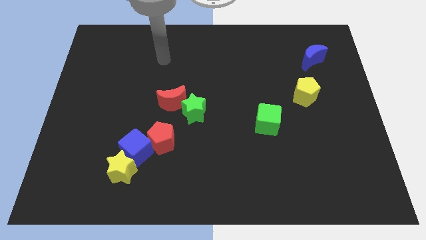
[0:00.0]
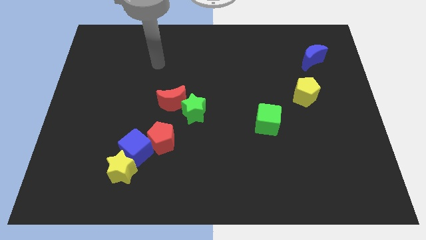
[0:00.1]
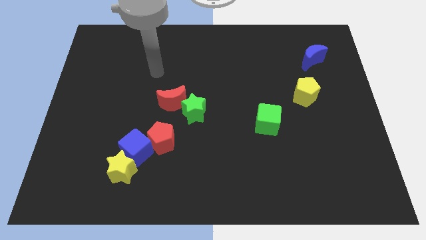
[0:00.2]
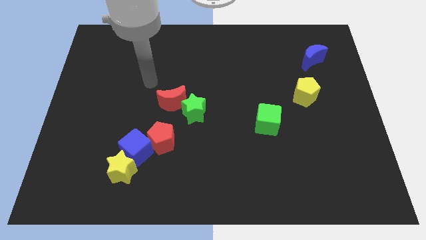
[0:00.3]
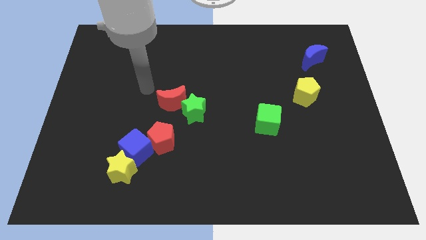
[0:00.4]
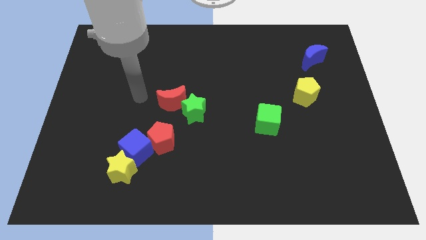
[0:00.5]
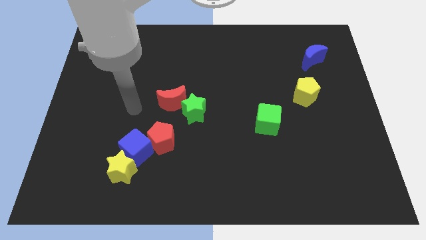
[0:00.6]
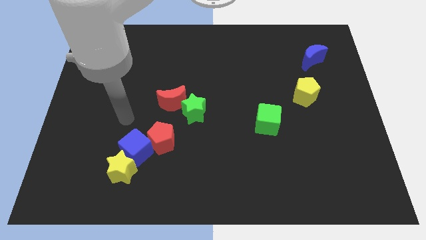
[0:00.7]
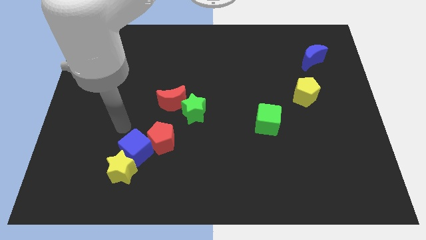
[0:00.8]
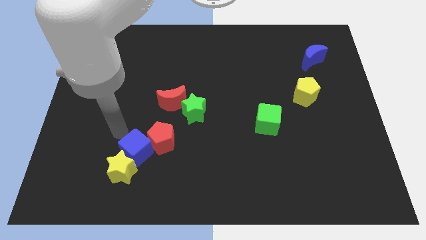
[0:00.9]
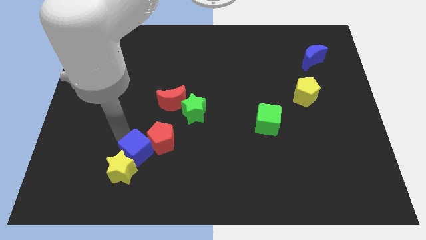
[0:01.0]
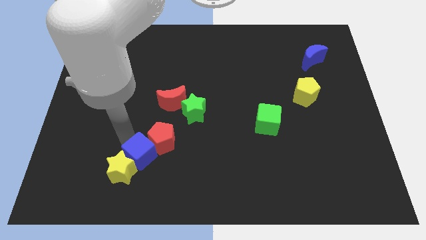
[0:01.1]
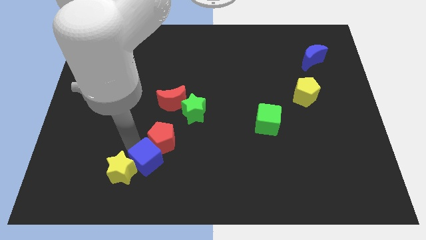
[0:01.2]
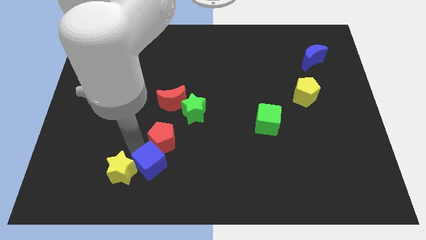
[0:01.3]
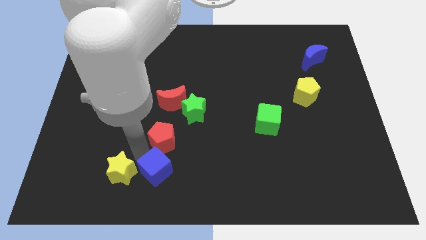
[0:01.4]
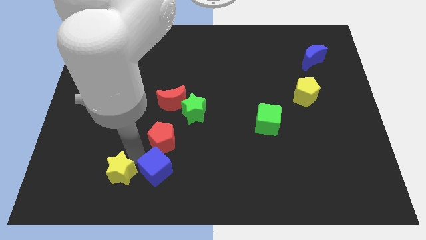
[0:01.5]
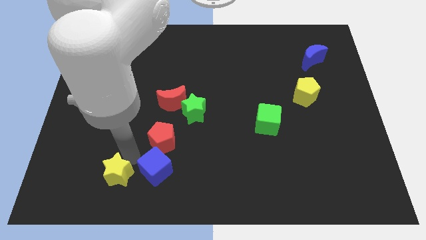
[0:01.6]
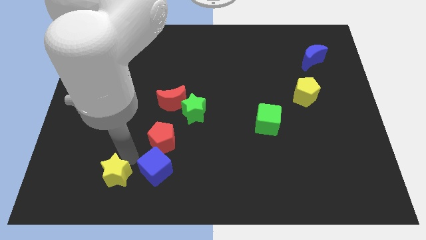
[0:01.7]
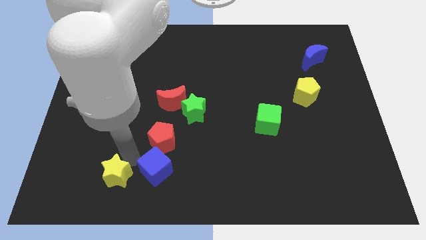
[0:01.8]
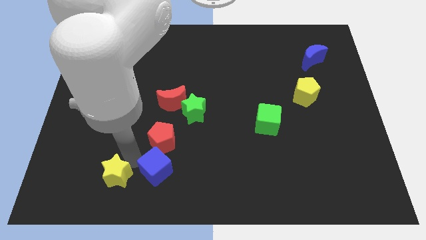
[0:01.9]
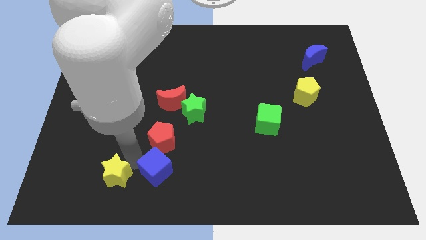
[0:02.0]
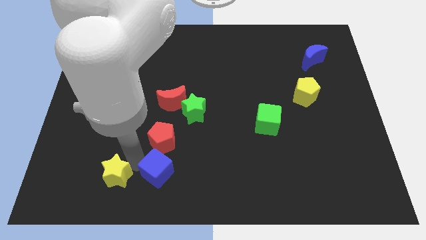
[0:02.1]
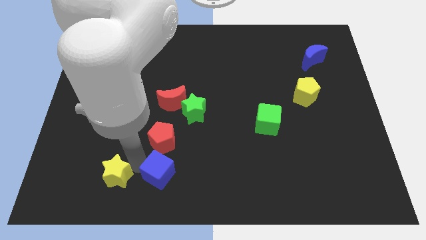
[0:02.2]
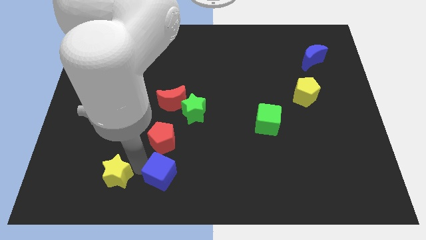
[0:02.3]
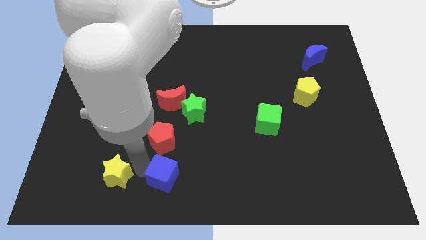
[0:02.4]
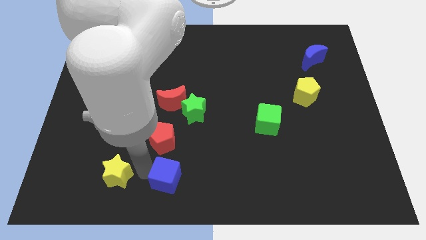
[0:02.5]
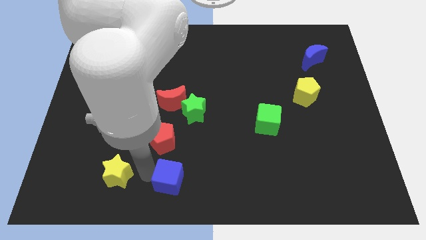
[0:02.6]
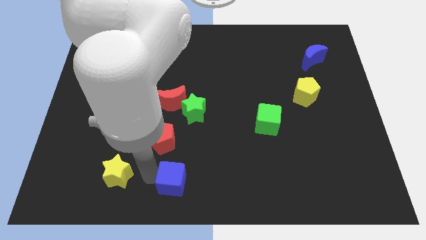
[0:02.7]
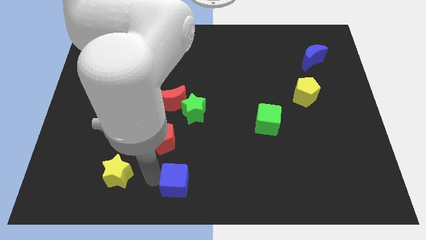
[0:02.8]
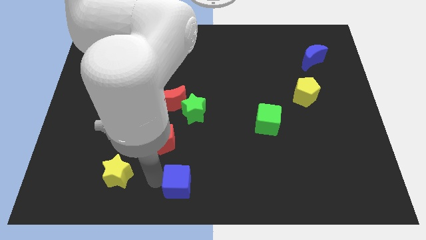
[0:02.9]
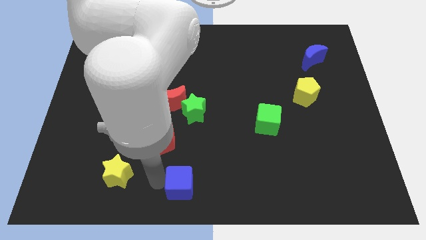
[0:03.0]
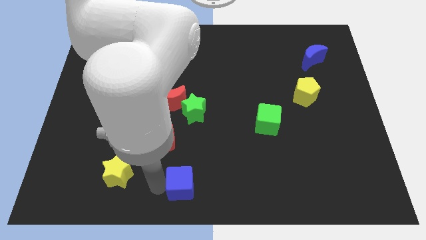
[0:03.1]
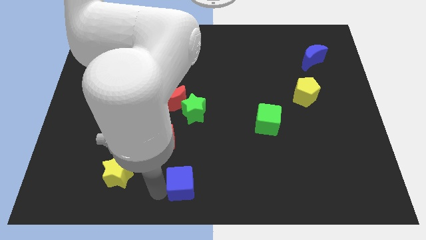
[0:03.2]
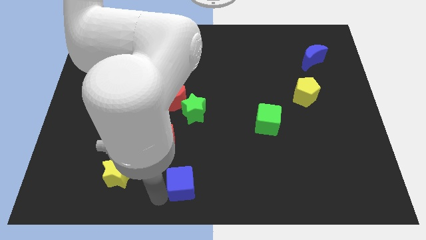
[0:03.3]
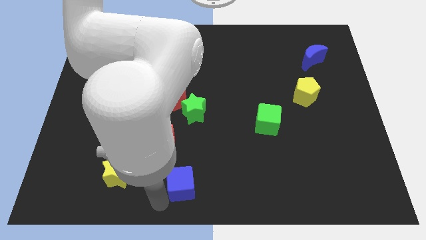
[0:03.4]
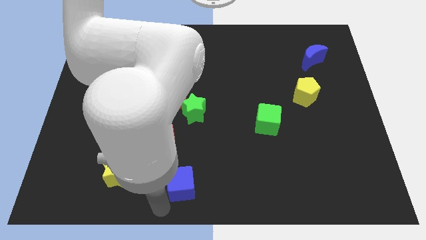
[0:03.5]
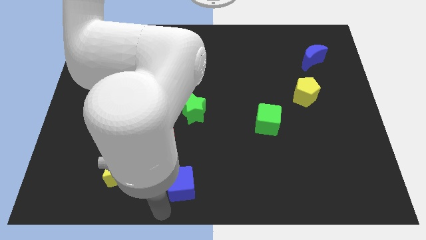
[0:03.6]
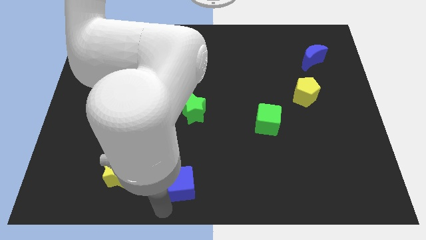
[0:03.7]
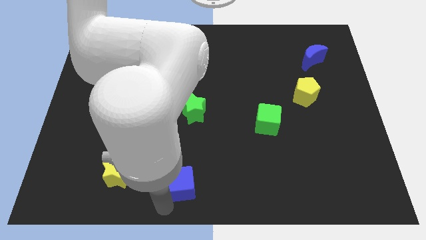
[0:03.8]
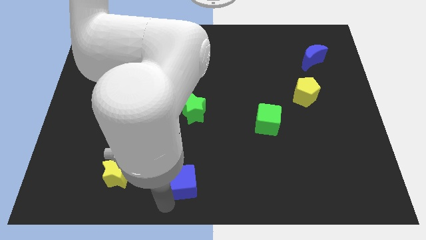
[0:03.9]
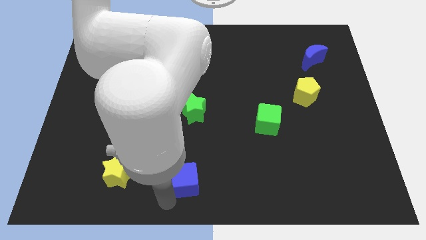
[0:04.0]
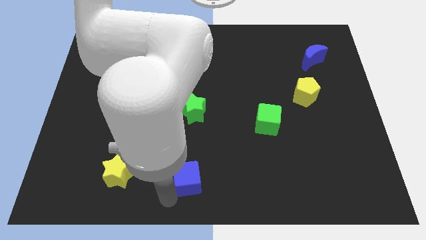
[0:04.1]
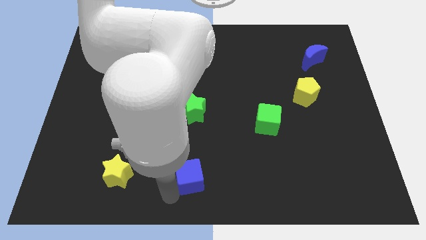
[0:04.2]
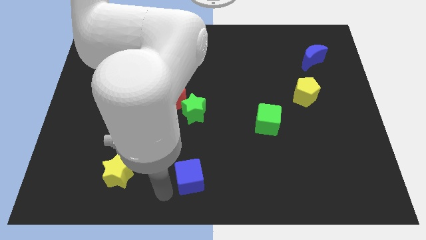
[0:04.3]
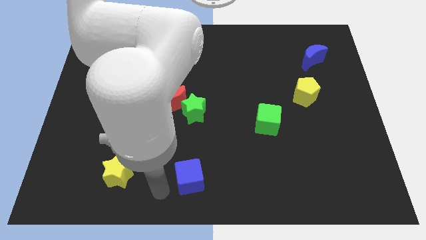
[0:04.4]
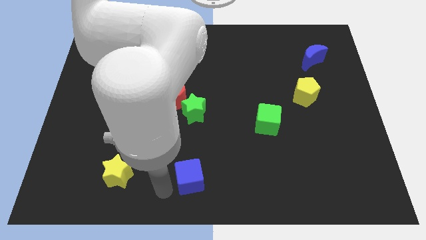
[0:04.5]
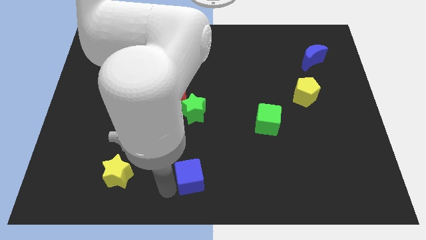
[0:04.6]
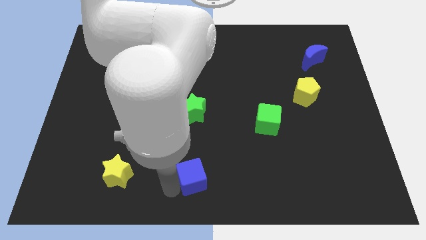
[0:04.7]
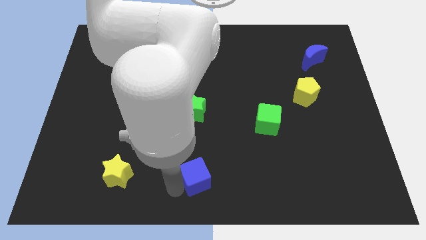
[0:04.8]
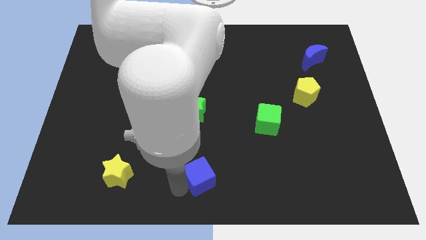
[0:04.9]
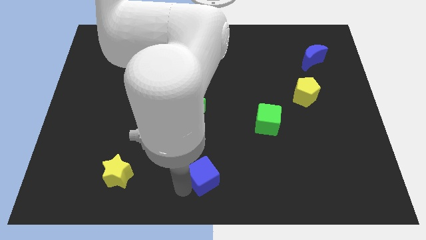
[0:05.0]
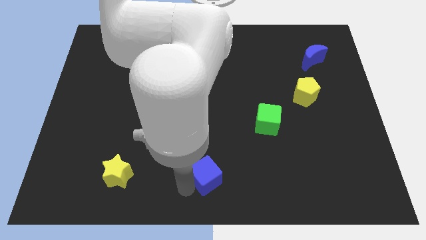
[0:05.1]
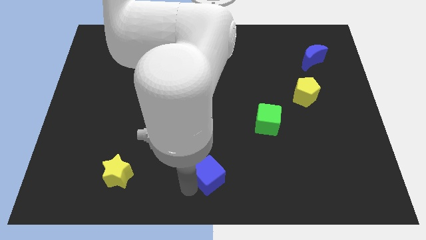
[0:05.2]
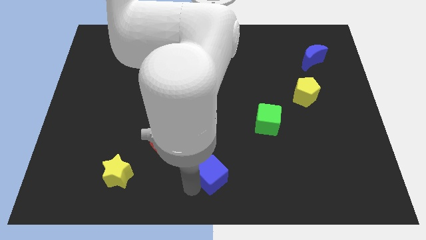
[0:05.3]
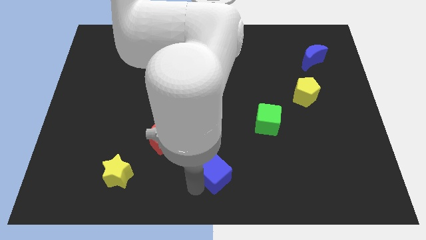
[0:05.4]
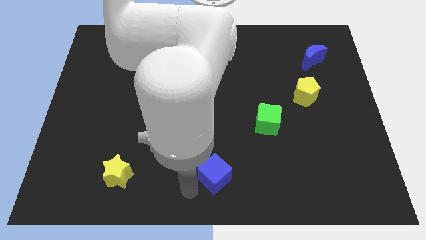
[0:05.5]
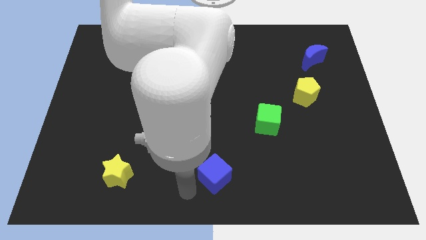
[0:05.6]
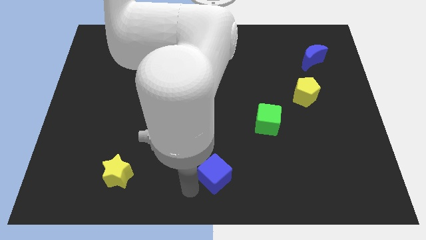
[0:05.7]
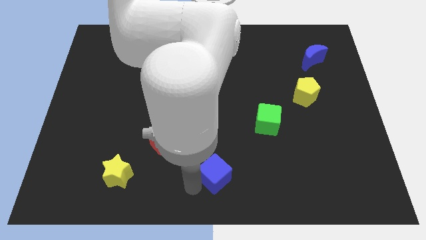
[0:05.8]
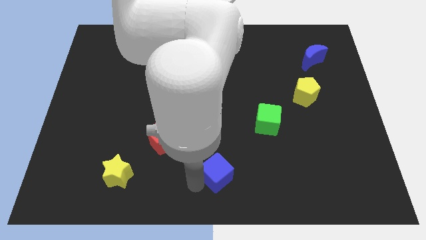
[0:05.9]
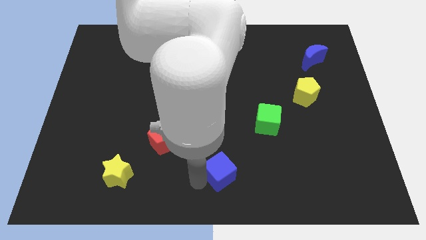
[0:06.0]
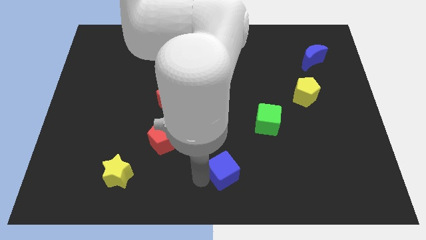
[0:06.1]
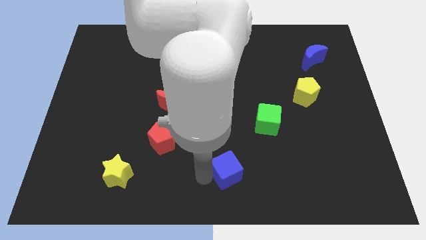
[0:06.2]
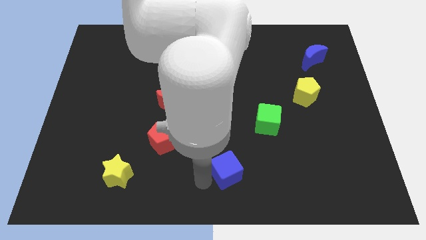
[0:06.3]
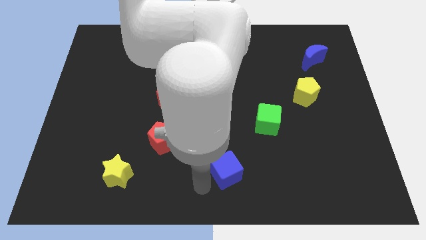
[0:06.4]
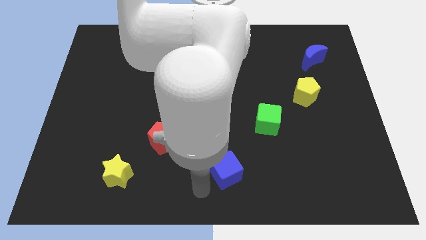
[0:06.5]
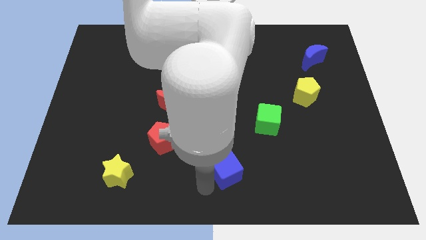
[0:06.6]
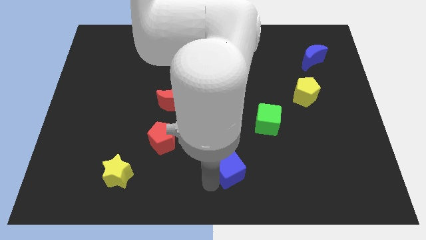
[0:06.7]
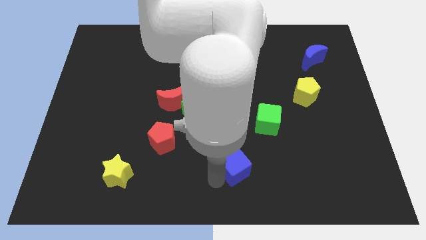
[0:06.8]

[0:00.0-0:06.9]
move the blue cube to the right

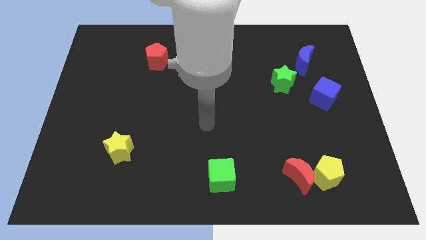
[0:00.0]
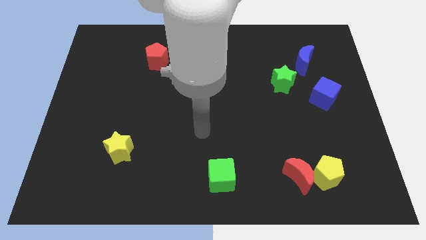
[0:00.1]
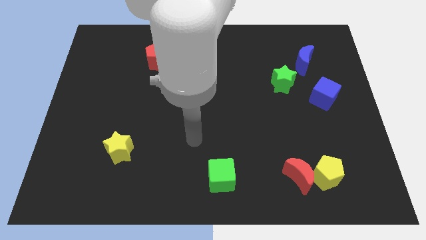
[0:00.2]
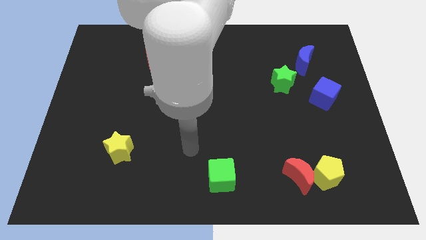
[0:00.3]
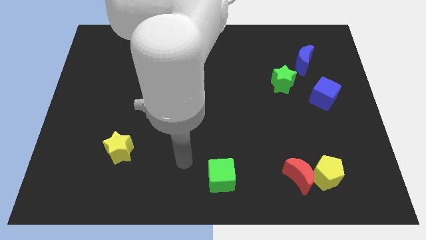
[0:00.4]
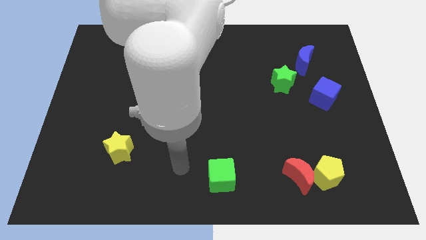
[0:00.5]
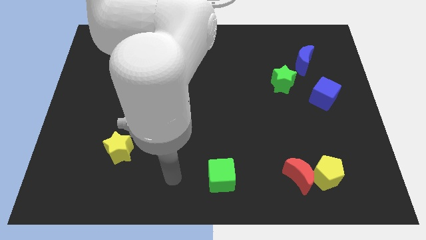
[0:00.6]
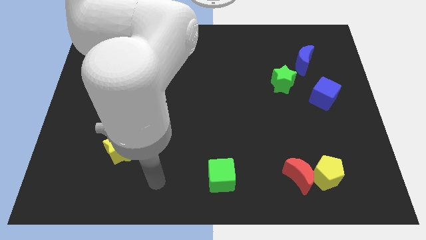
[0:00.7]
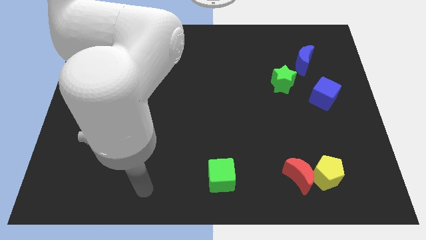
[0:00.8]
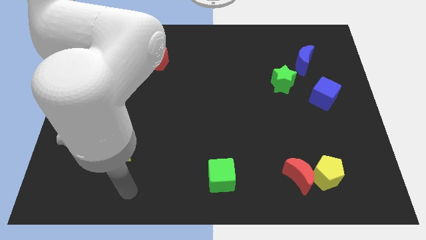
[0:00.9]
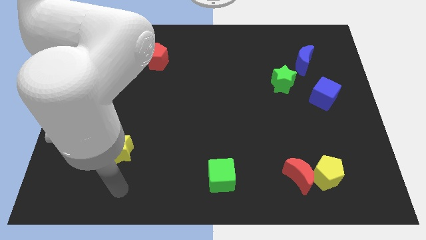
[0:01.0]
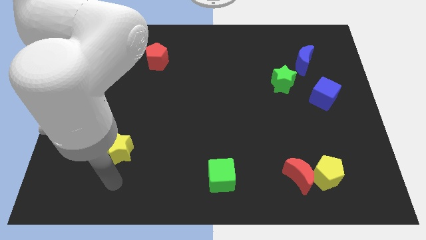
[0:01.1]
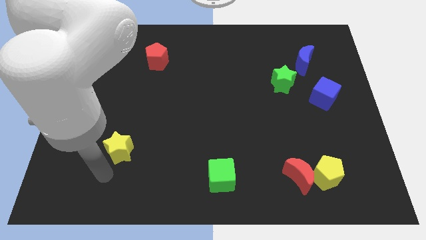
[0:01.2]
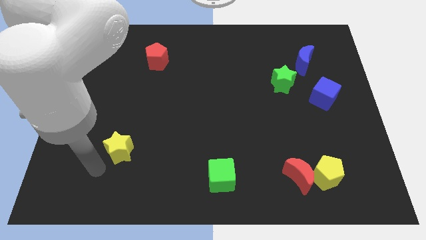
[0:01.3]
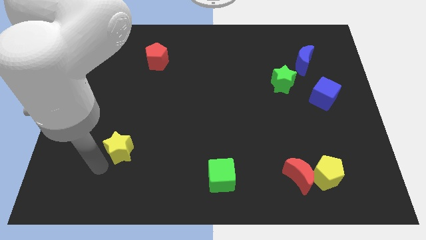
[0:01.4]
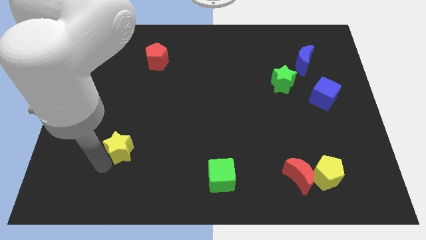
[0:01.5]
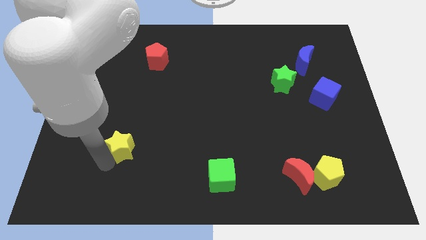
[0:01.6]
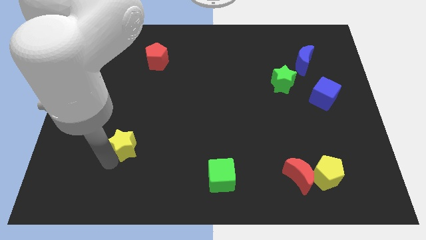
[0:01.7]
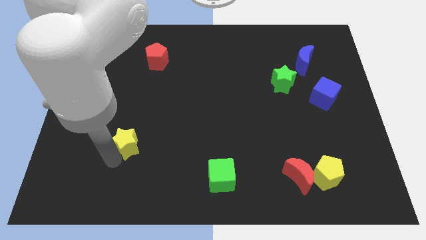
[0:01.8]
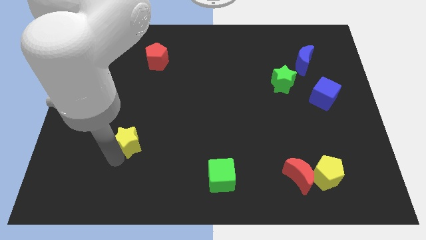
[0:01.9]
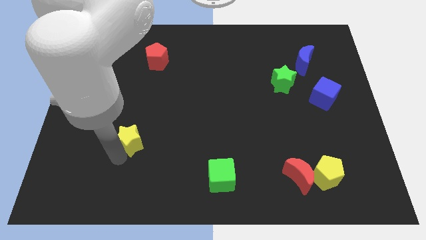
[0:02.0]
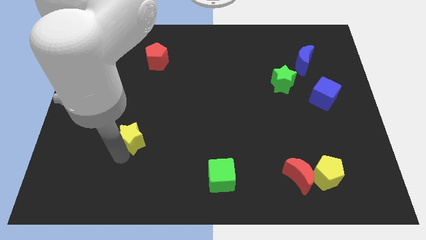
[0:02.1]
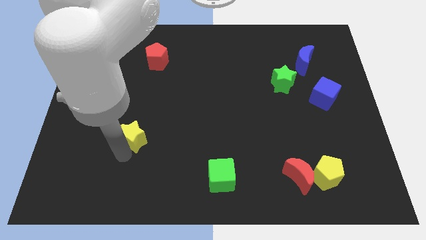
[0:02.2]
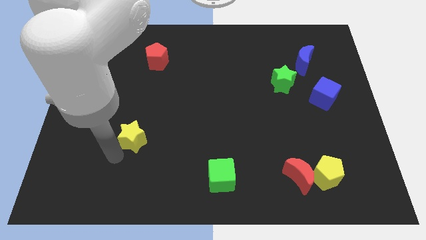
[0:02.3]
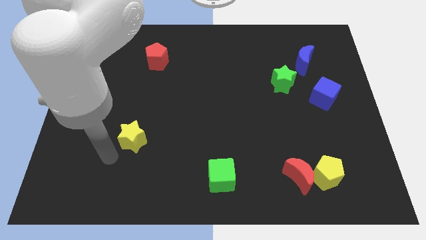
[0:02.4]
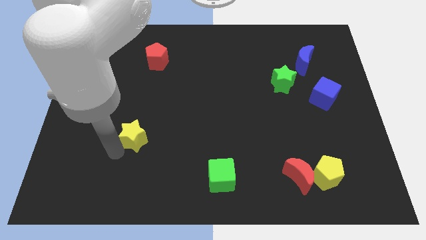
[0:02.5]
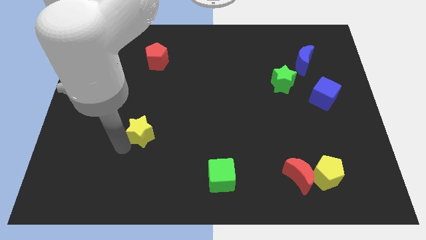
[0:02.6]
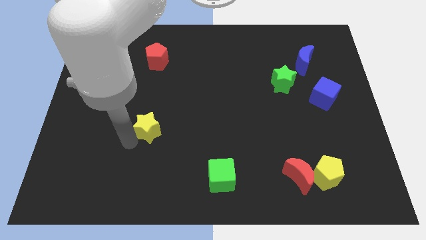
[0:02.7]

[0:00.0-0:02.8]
slide the yellow star a bit upwards and then to the right
